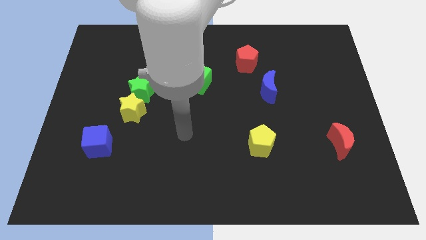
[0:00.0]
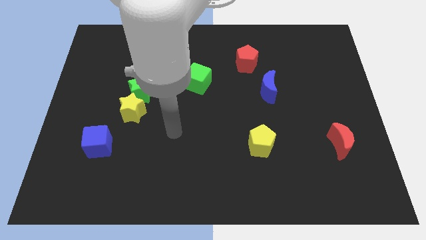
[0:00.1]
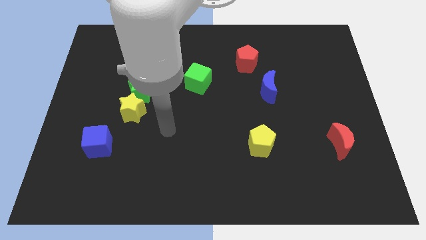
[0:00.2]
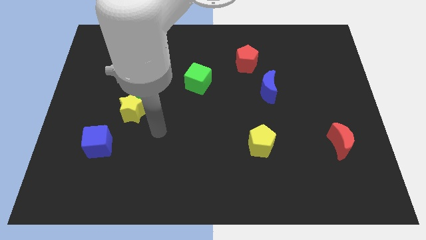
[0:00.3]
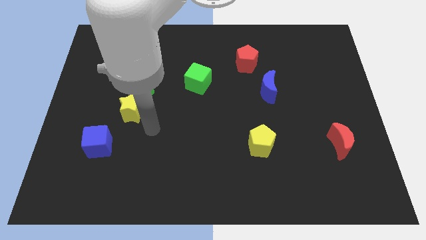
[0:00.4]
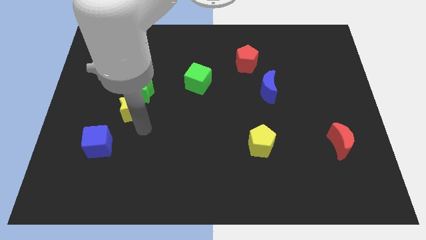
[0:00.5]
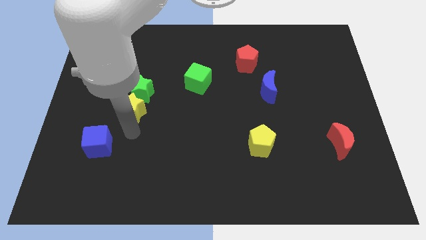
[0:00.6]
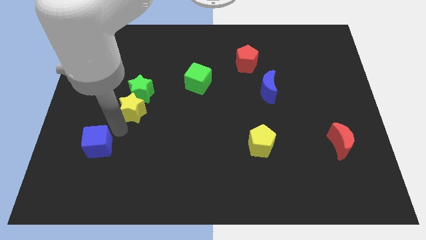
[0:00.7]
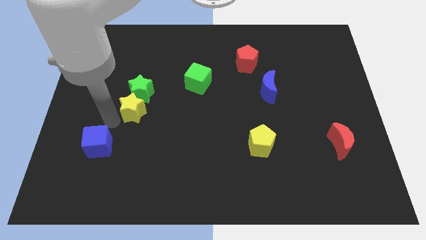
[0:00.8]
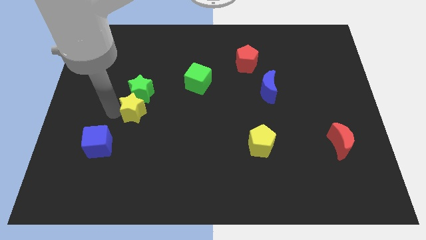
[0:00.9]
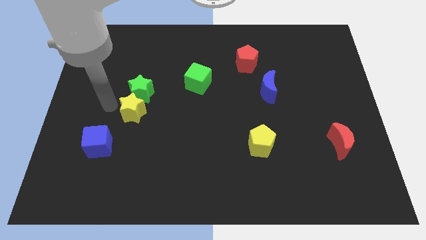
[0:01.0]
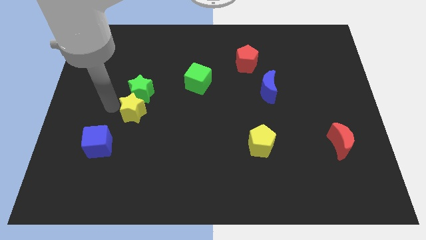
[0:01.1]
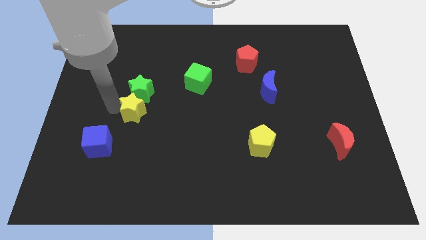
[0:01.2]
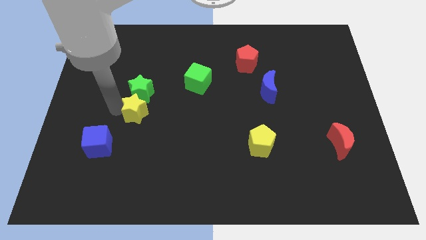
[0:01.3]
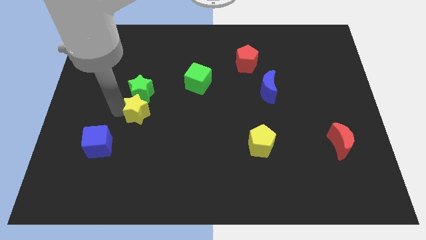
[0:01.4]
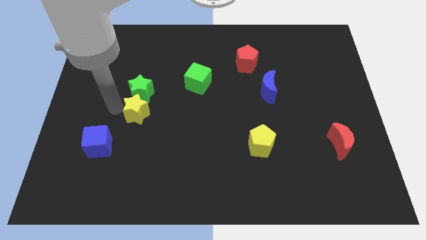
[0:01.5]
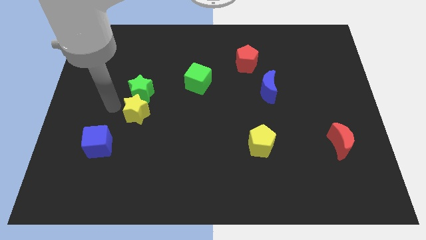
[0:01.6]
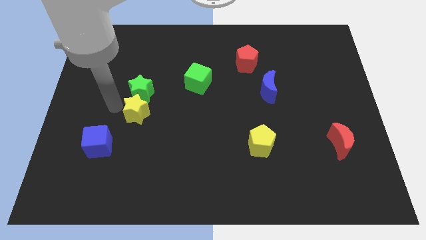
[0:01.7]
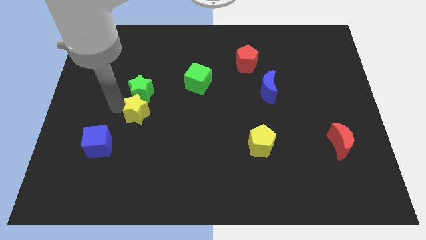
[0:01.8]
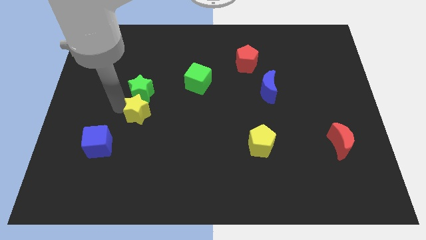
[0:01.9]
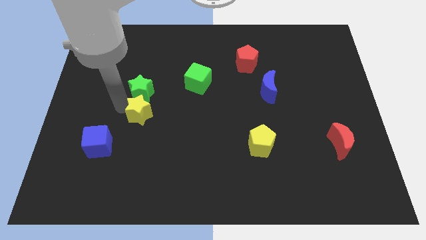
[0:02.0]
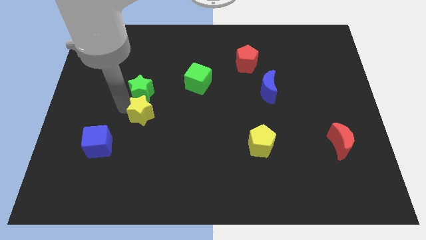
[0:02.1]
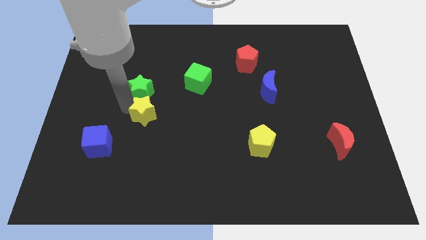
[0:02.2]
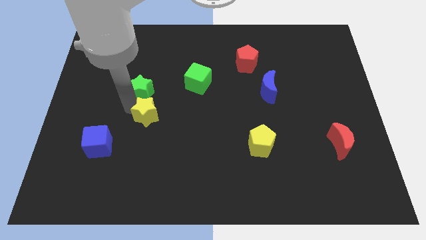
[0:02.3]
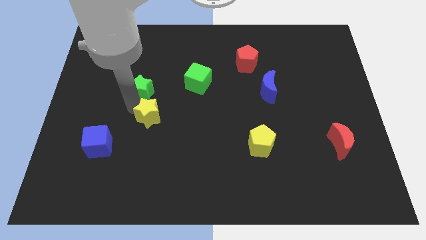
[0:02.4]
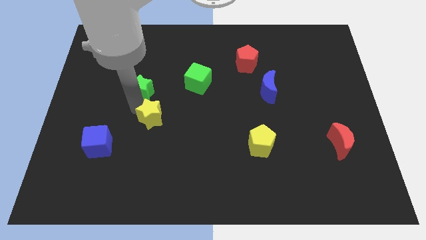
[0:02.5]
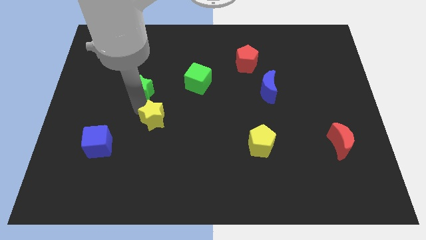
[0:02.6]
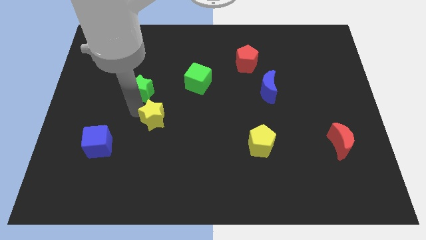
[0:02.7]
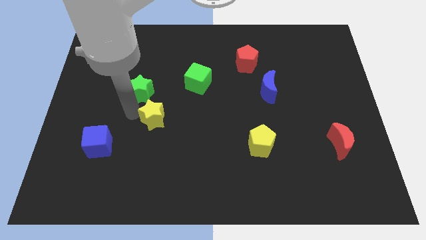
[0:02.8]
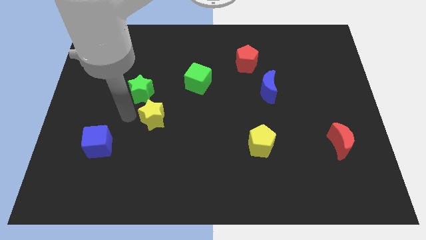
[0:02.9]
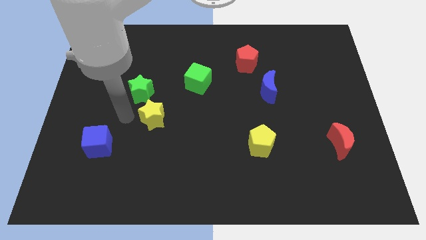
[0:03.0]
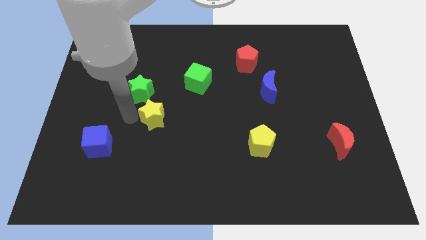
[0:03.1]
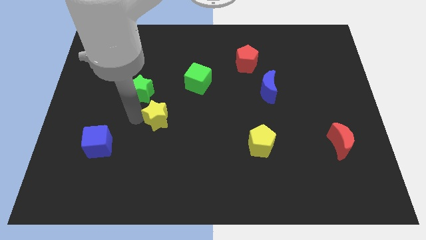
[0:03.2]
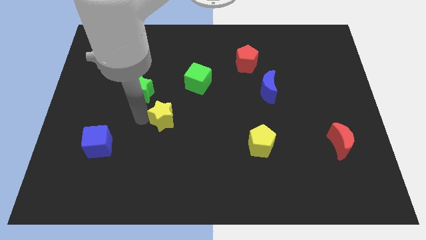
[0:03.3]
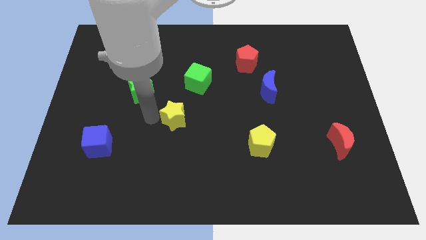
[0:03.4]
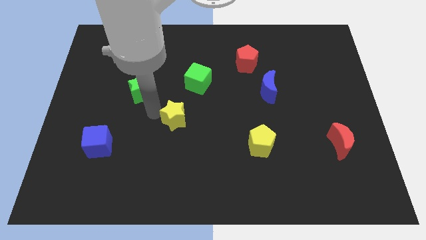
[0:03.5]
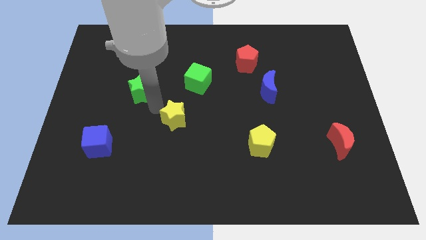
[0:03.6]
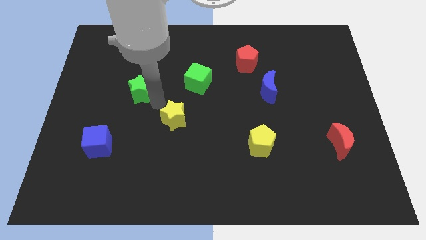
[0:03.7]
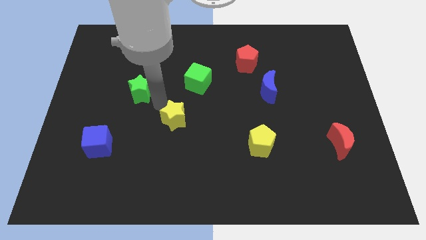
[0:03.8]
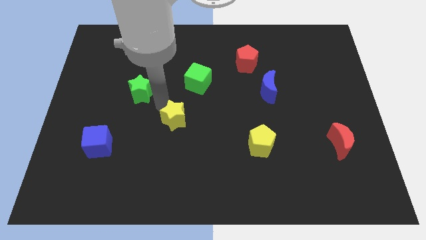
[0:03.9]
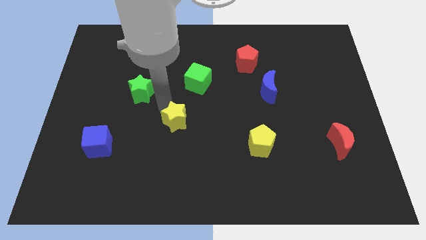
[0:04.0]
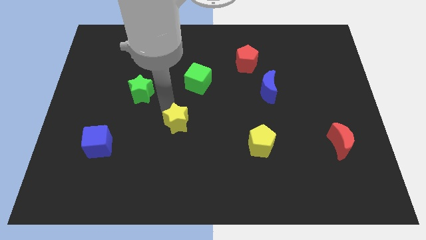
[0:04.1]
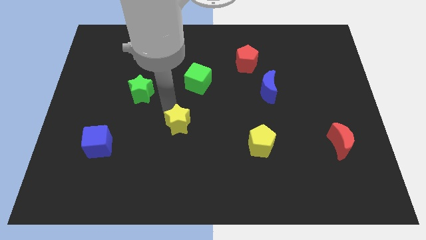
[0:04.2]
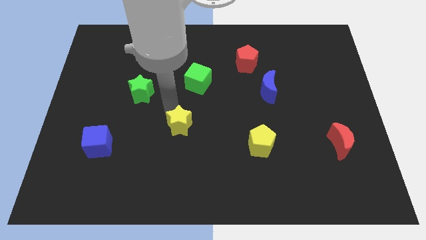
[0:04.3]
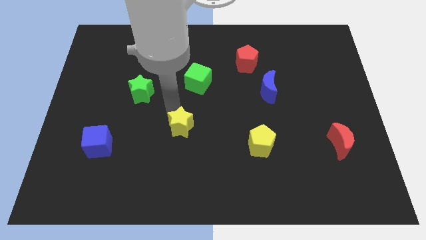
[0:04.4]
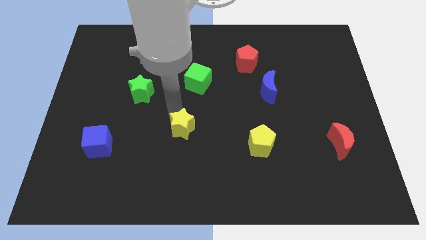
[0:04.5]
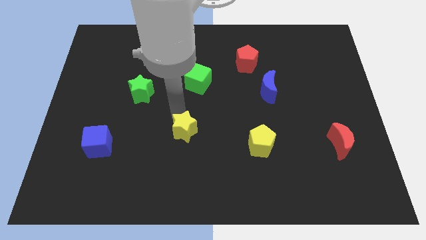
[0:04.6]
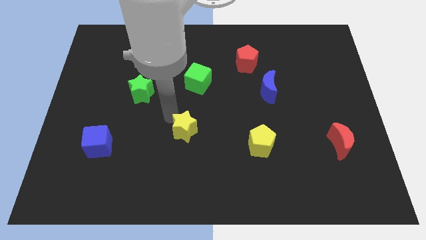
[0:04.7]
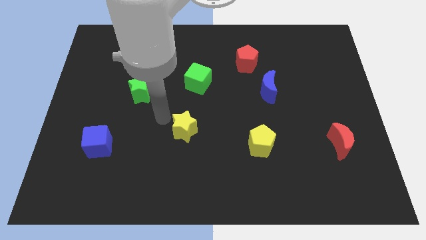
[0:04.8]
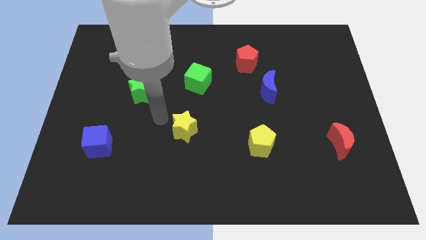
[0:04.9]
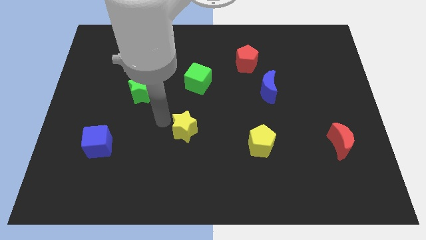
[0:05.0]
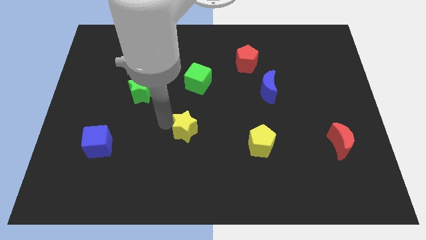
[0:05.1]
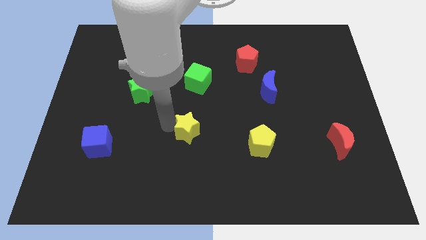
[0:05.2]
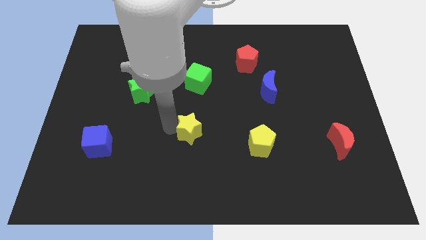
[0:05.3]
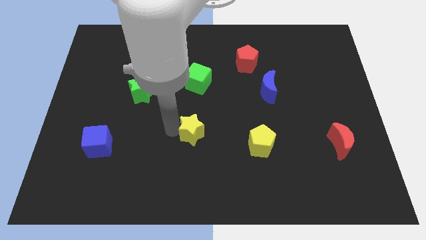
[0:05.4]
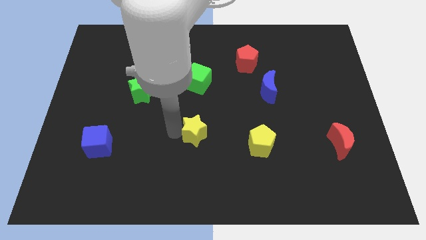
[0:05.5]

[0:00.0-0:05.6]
move the yellow star to the left side of the yellow pentagon

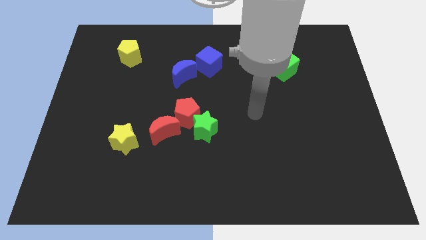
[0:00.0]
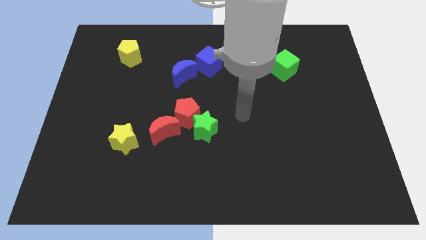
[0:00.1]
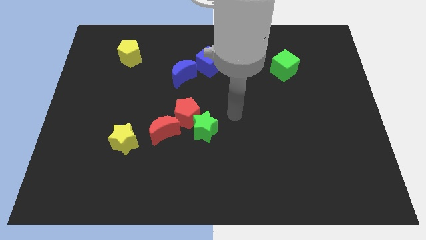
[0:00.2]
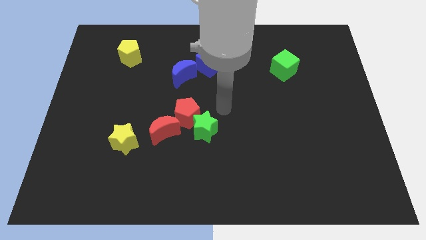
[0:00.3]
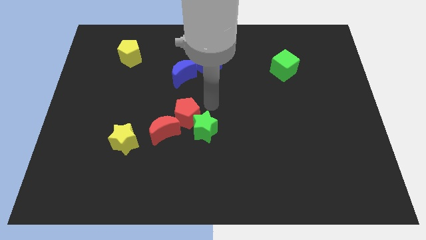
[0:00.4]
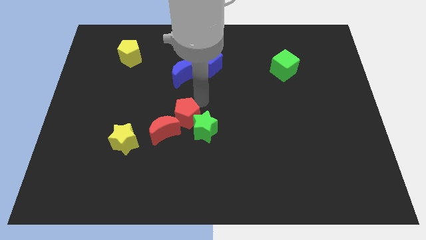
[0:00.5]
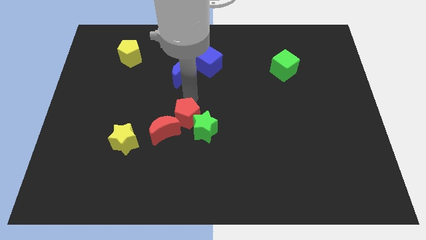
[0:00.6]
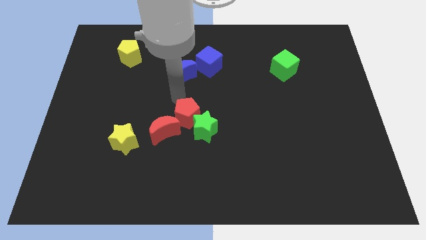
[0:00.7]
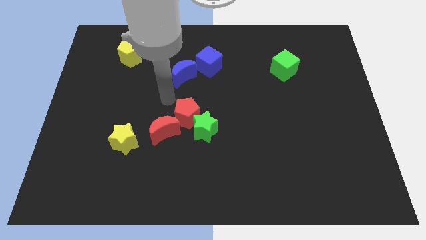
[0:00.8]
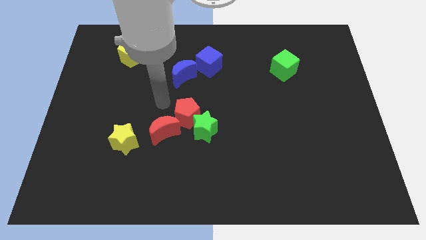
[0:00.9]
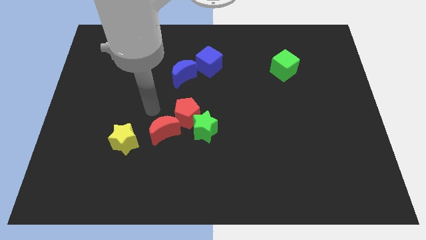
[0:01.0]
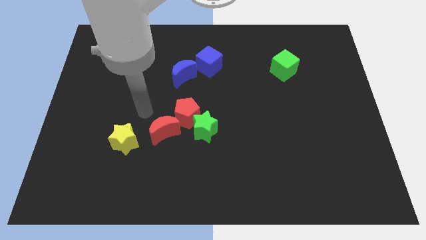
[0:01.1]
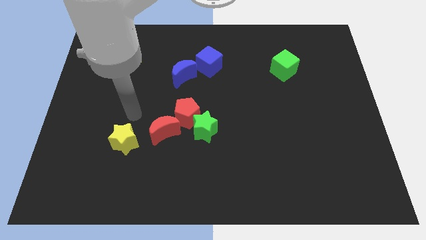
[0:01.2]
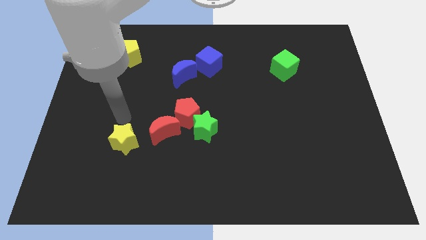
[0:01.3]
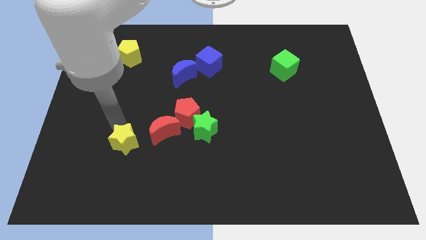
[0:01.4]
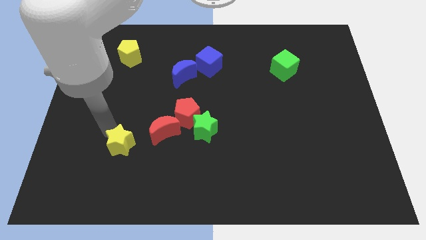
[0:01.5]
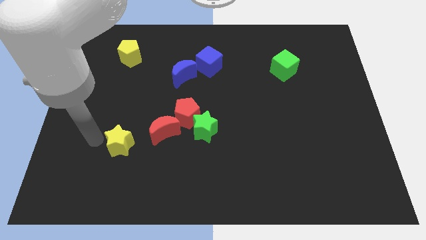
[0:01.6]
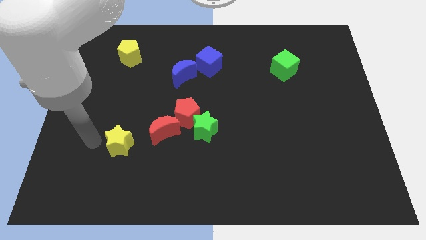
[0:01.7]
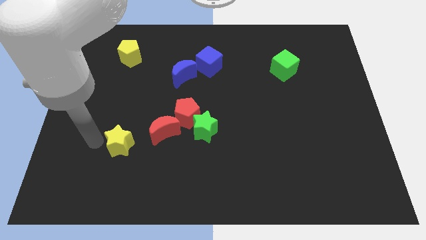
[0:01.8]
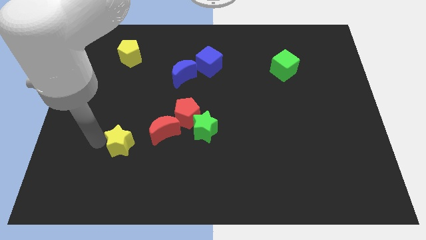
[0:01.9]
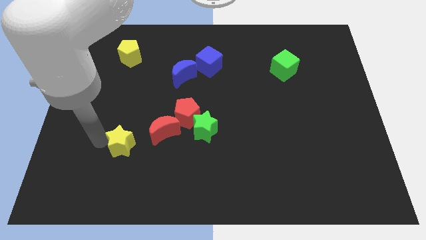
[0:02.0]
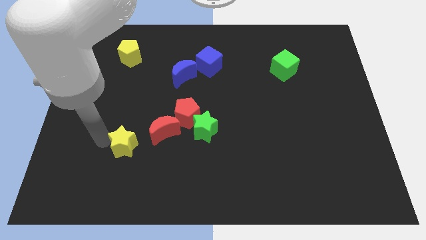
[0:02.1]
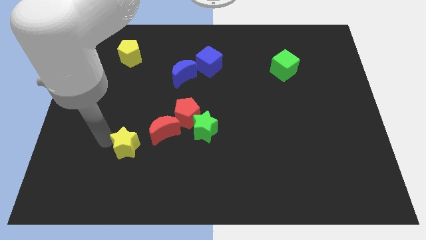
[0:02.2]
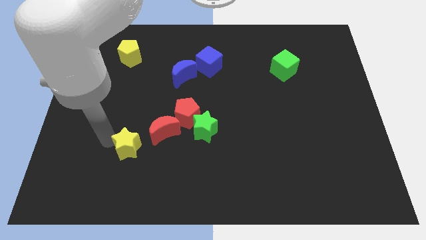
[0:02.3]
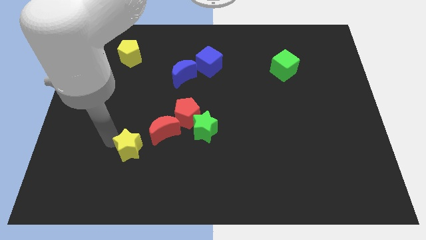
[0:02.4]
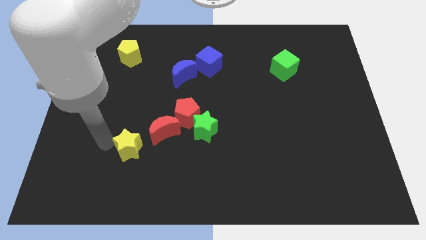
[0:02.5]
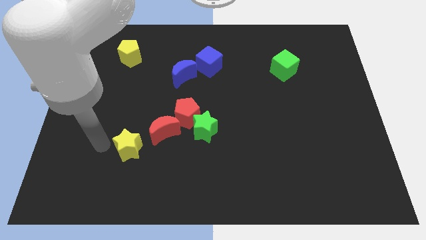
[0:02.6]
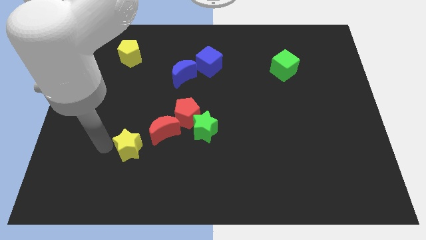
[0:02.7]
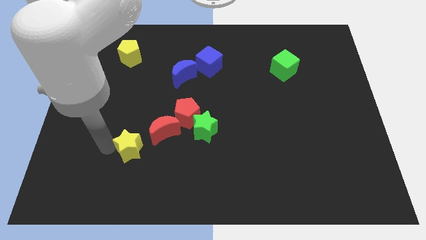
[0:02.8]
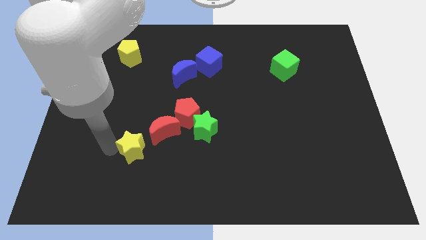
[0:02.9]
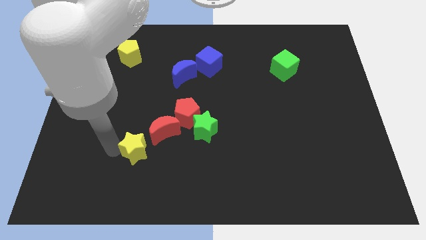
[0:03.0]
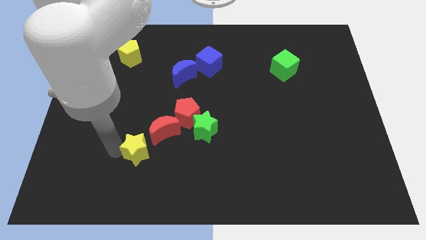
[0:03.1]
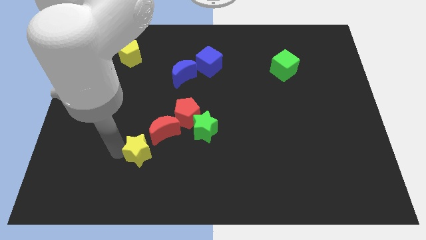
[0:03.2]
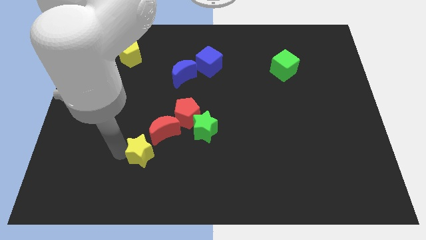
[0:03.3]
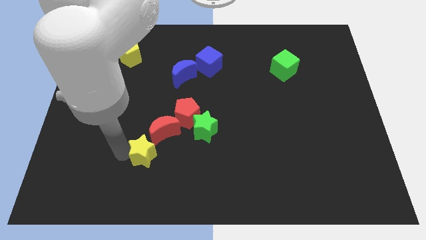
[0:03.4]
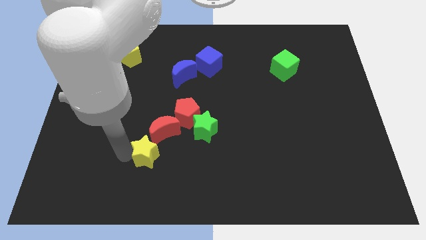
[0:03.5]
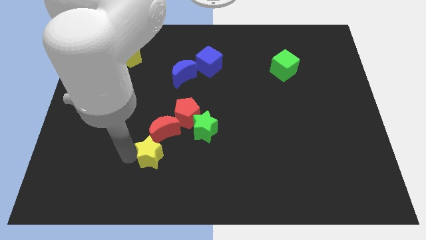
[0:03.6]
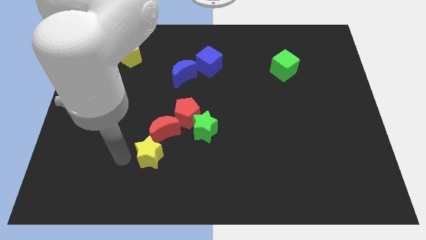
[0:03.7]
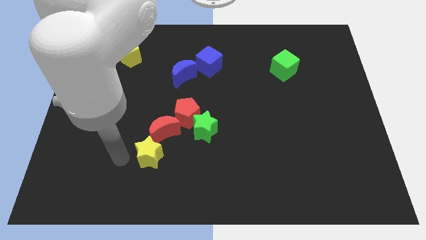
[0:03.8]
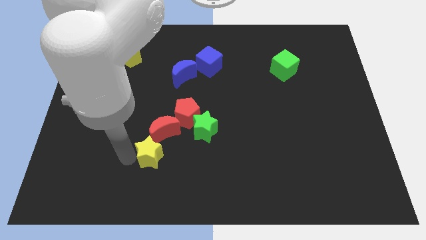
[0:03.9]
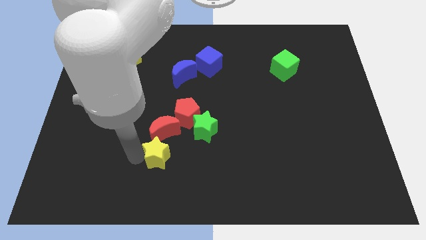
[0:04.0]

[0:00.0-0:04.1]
move the yellow star to the bottom right side of the red moon
